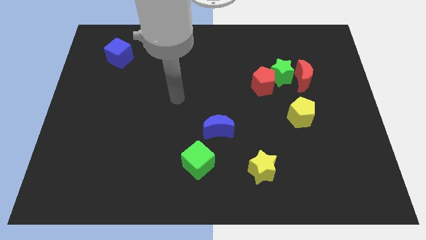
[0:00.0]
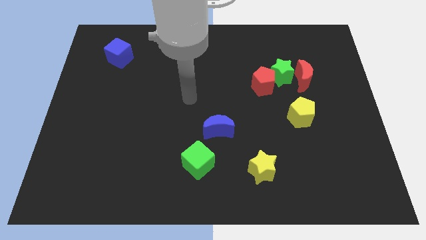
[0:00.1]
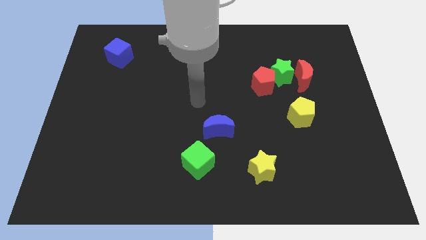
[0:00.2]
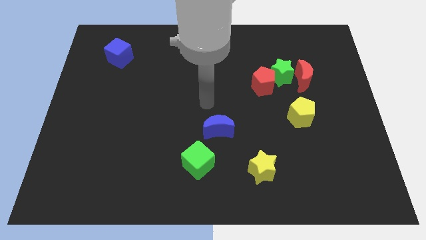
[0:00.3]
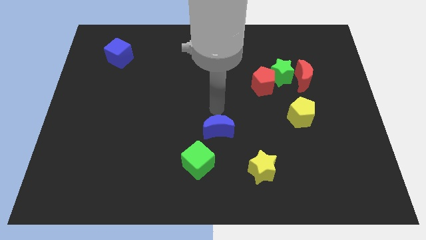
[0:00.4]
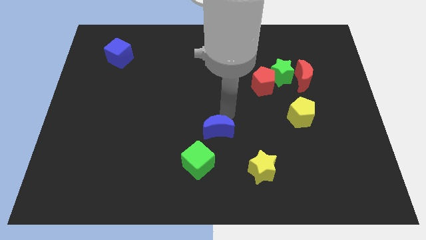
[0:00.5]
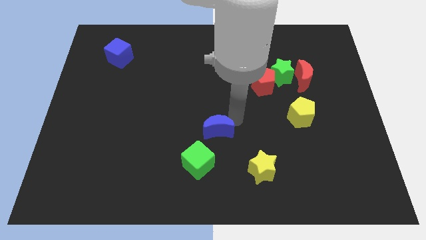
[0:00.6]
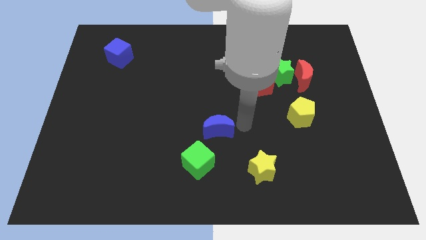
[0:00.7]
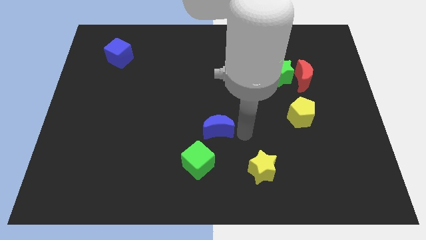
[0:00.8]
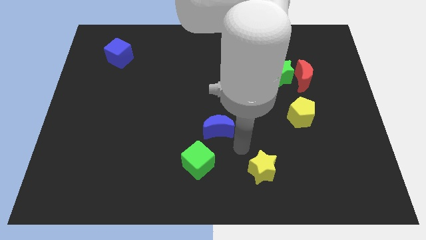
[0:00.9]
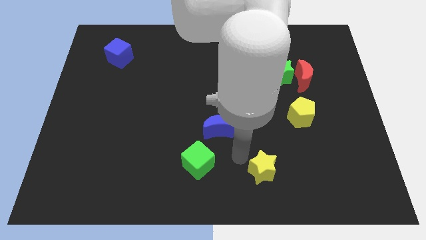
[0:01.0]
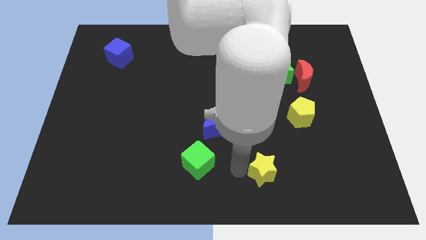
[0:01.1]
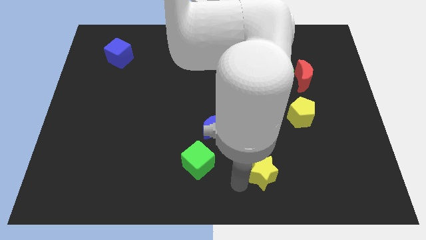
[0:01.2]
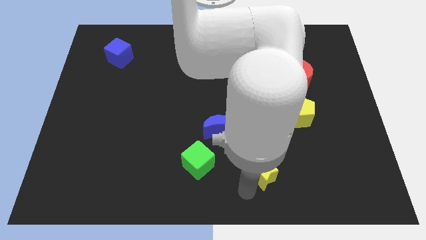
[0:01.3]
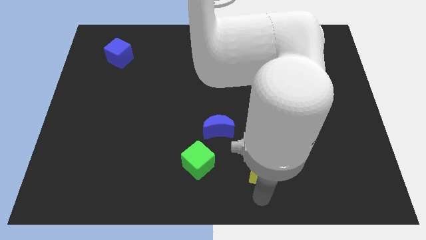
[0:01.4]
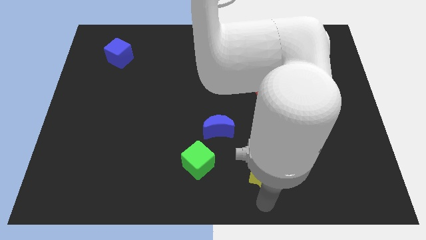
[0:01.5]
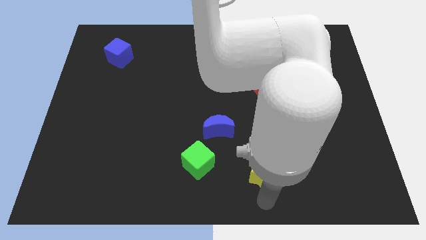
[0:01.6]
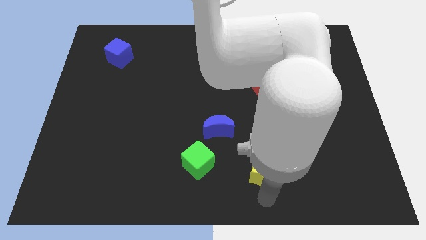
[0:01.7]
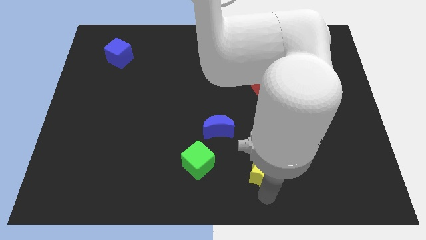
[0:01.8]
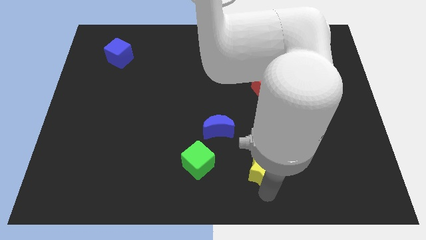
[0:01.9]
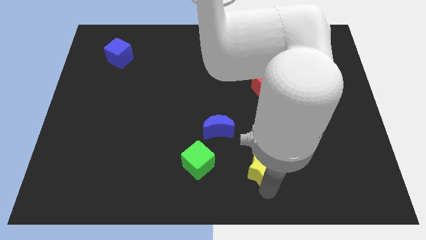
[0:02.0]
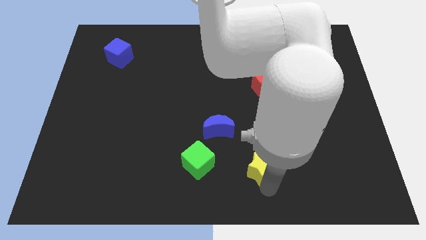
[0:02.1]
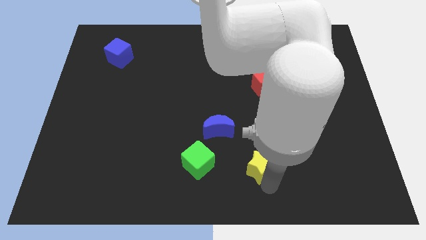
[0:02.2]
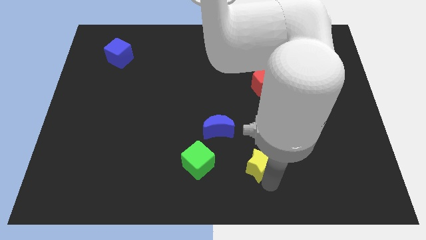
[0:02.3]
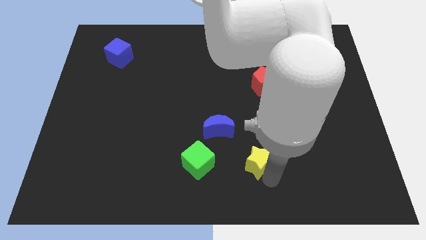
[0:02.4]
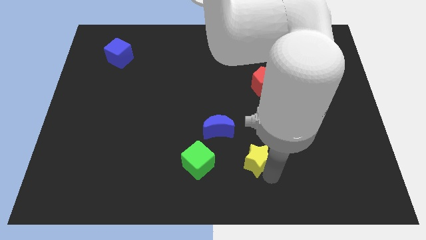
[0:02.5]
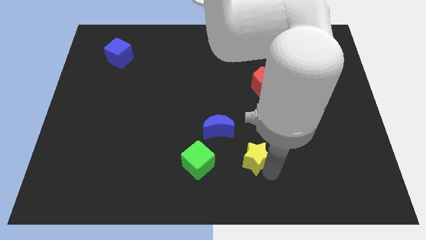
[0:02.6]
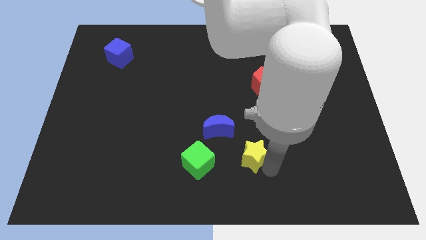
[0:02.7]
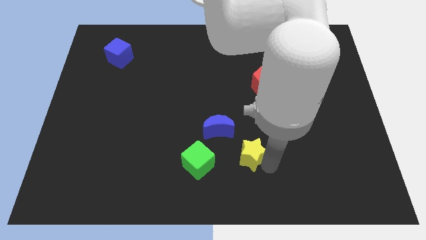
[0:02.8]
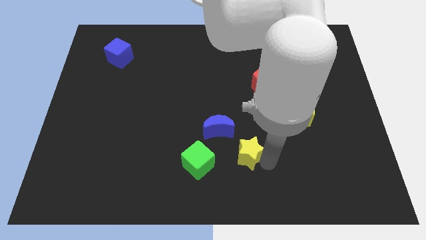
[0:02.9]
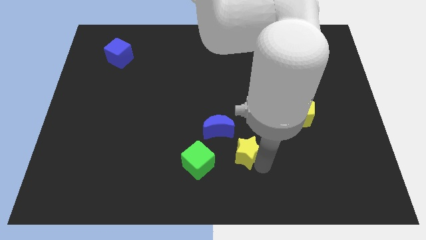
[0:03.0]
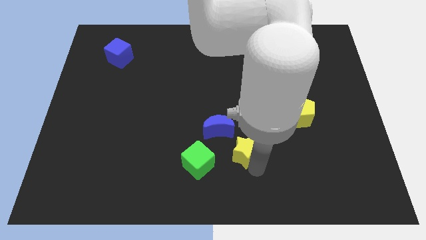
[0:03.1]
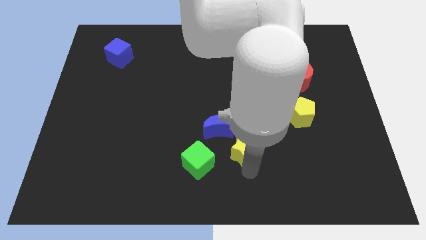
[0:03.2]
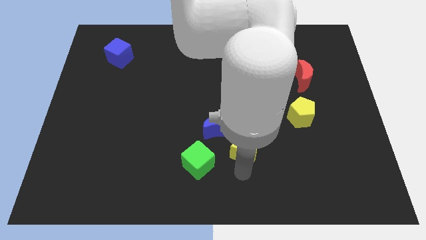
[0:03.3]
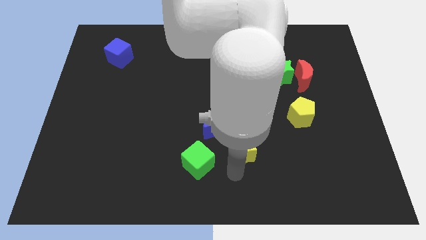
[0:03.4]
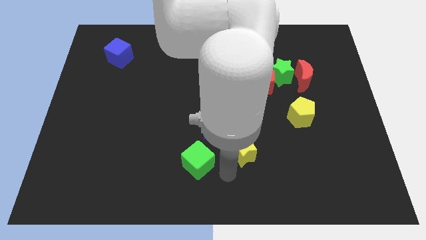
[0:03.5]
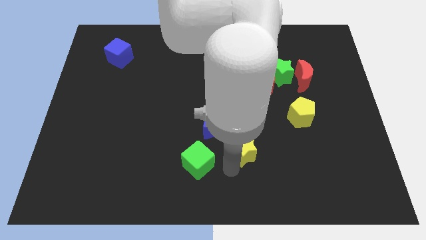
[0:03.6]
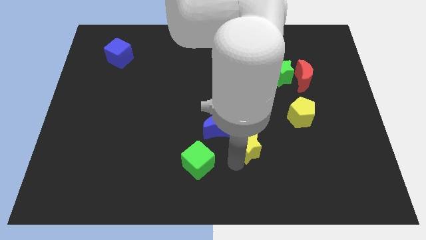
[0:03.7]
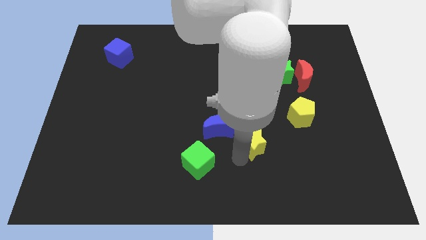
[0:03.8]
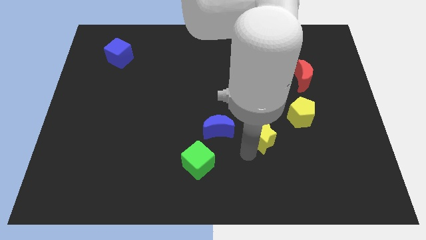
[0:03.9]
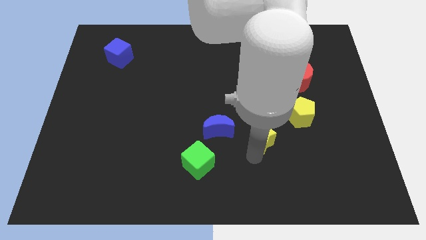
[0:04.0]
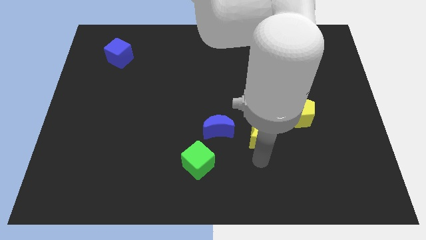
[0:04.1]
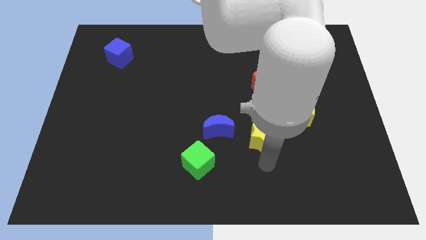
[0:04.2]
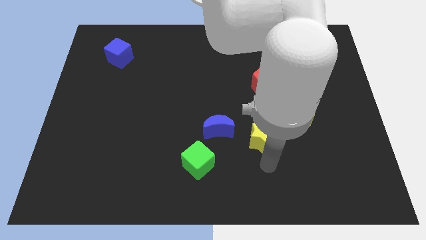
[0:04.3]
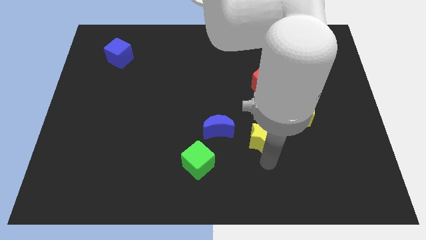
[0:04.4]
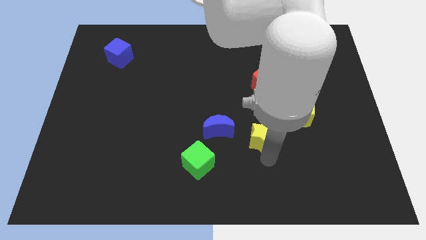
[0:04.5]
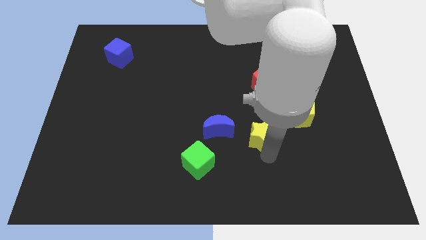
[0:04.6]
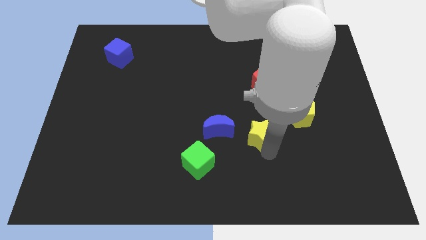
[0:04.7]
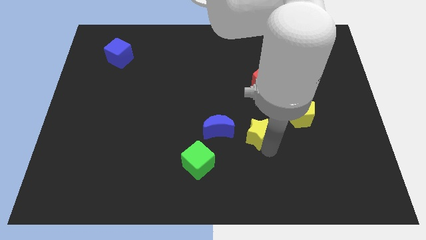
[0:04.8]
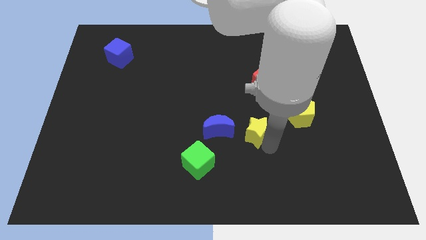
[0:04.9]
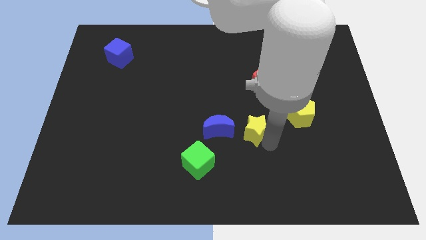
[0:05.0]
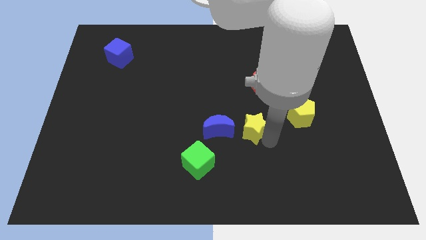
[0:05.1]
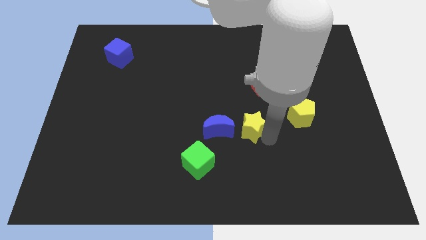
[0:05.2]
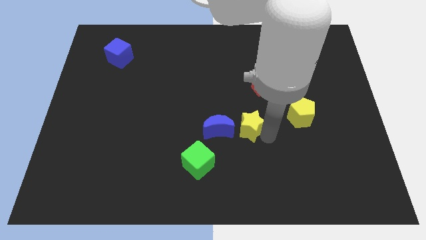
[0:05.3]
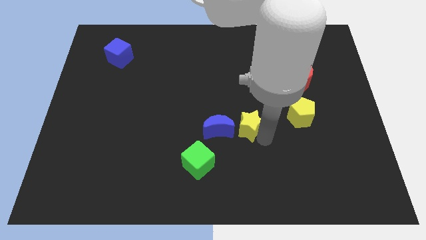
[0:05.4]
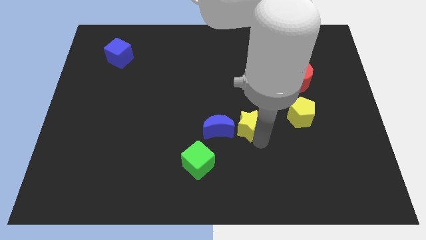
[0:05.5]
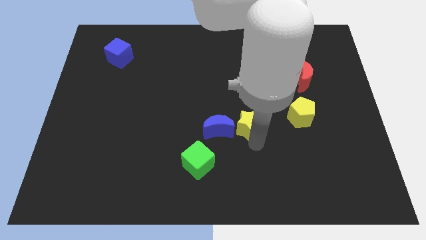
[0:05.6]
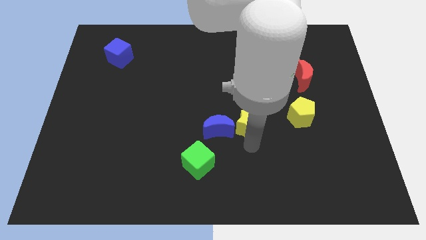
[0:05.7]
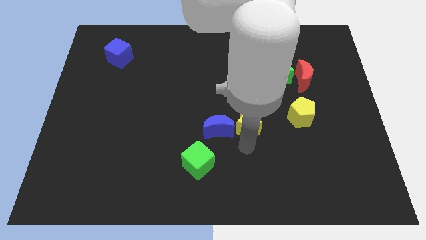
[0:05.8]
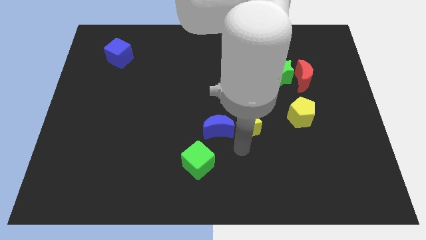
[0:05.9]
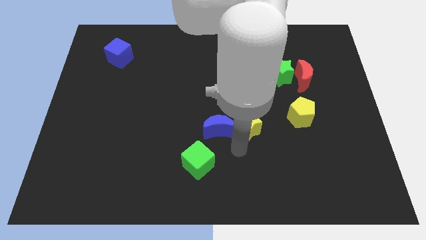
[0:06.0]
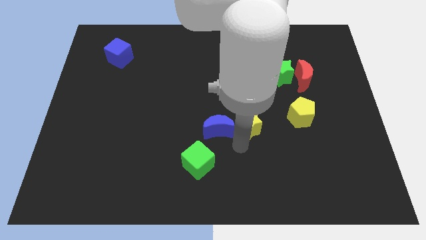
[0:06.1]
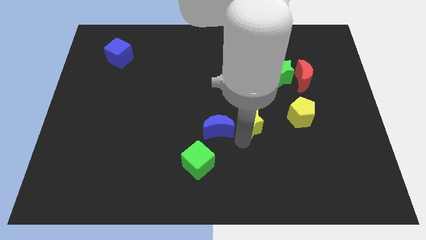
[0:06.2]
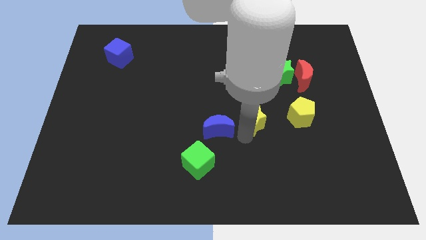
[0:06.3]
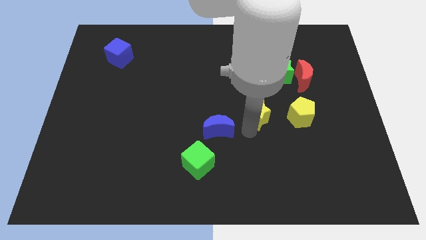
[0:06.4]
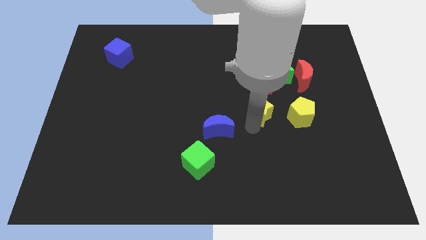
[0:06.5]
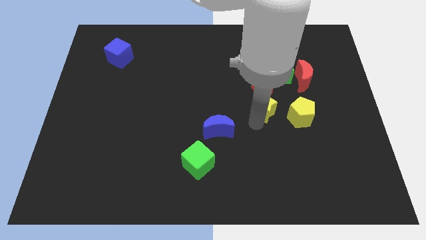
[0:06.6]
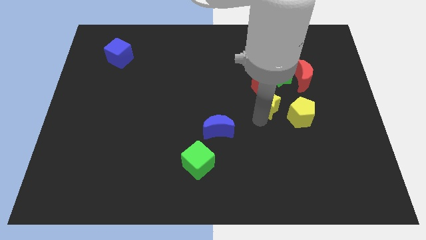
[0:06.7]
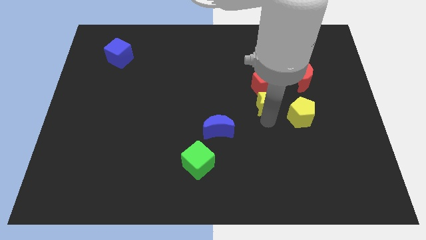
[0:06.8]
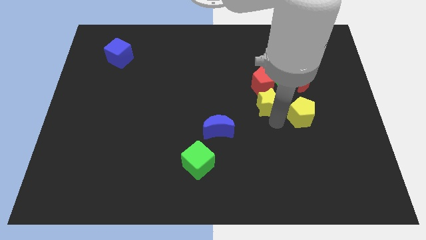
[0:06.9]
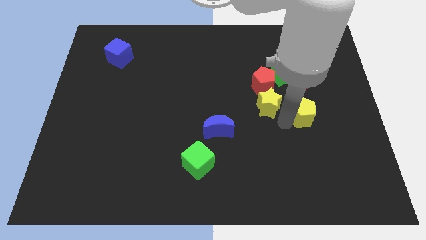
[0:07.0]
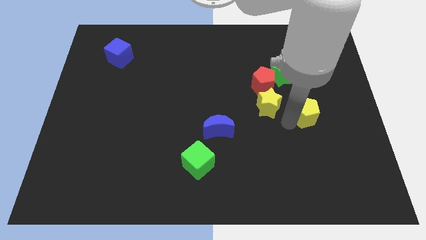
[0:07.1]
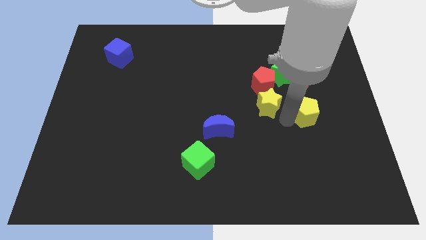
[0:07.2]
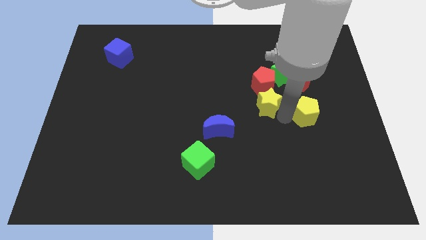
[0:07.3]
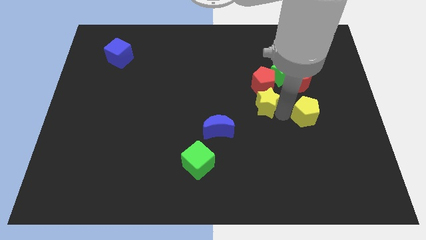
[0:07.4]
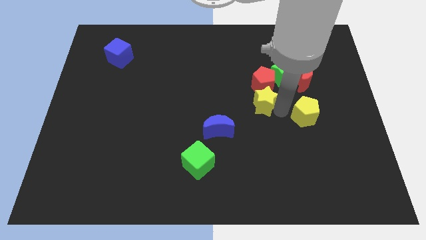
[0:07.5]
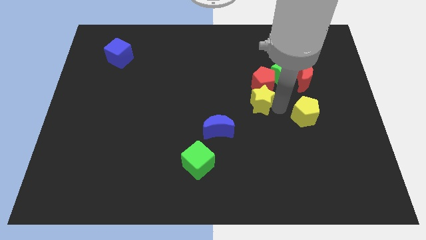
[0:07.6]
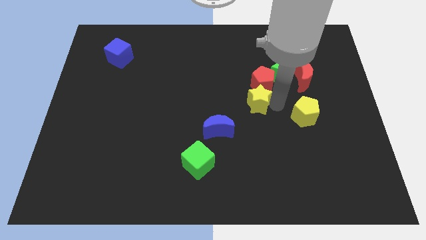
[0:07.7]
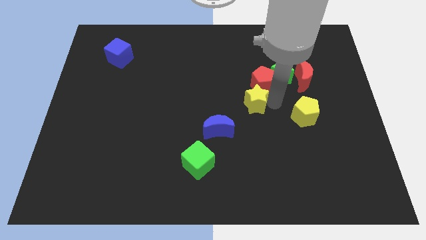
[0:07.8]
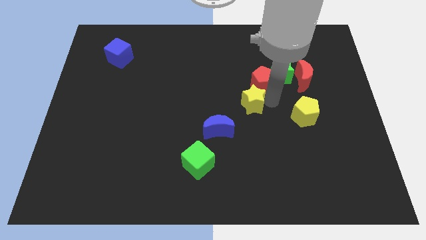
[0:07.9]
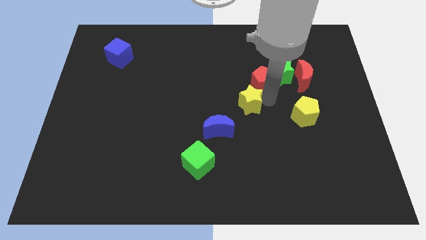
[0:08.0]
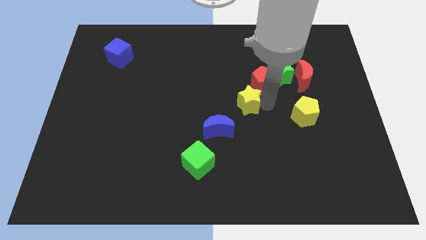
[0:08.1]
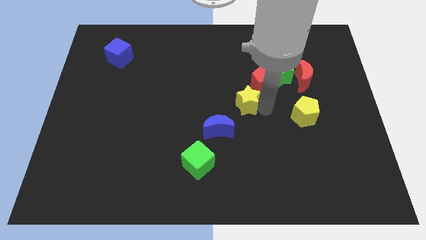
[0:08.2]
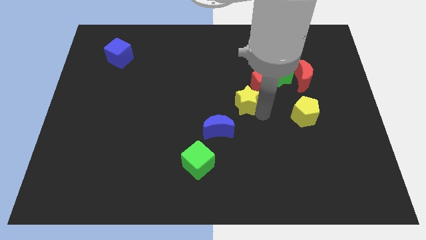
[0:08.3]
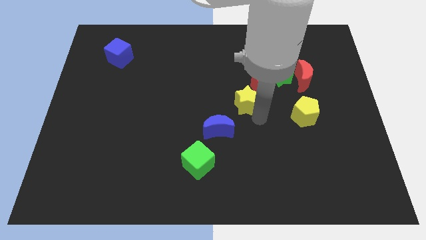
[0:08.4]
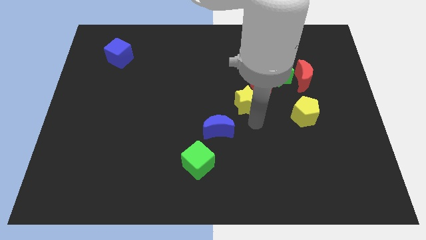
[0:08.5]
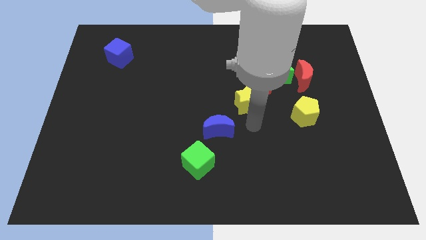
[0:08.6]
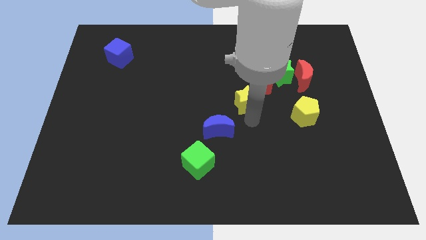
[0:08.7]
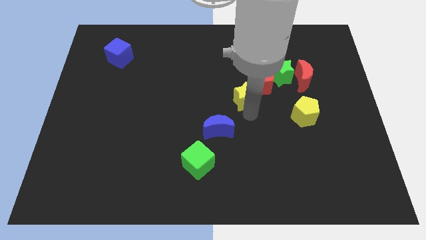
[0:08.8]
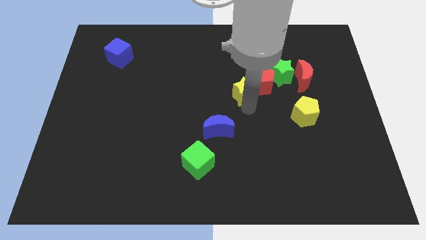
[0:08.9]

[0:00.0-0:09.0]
move the yellow star up
